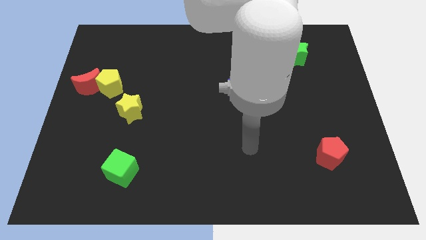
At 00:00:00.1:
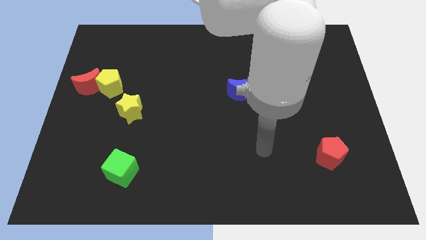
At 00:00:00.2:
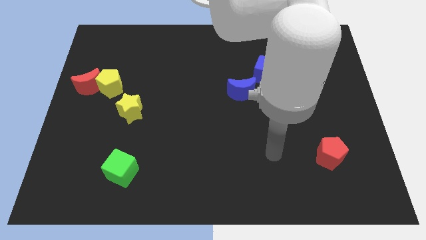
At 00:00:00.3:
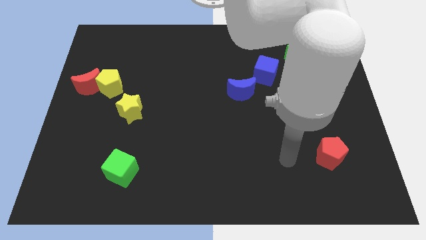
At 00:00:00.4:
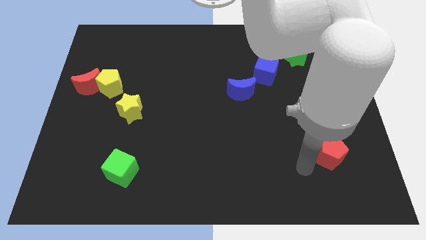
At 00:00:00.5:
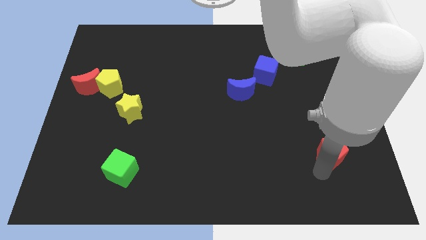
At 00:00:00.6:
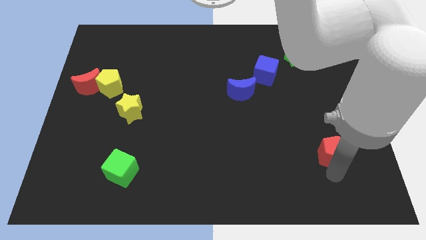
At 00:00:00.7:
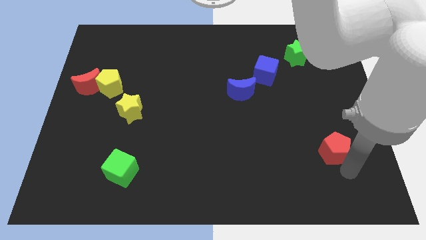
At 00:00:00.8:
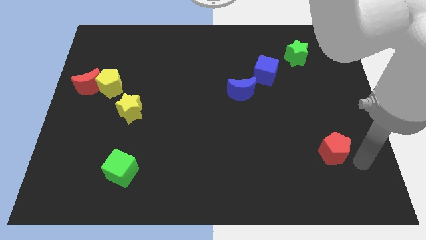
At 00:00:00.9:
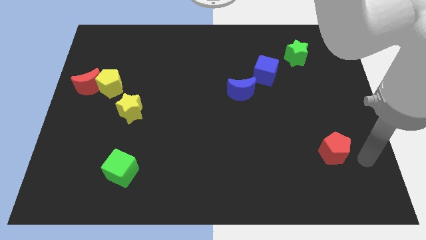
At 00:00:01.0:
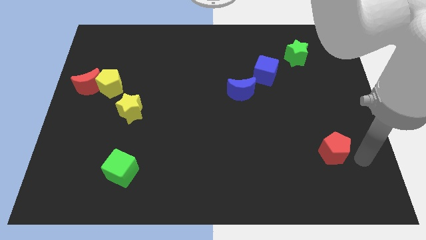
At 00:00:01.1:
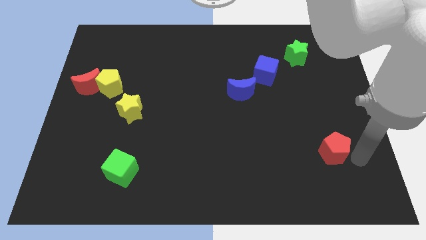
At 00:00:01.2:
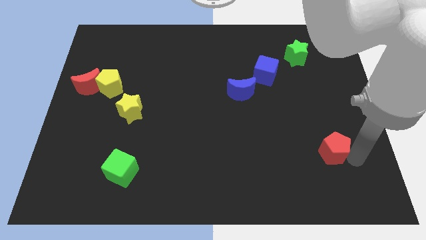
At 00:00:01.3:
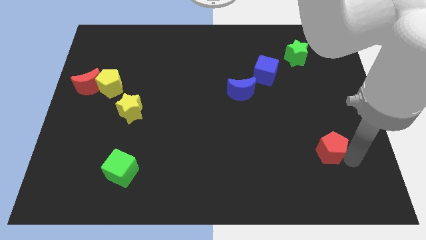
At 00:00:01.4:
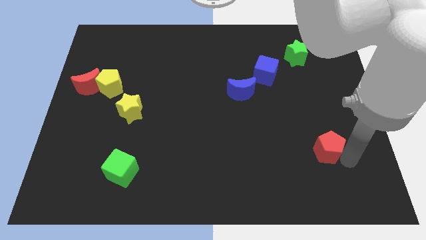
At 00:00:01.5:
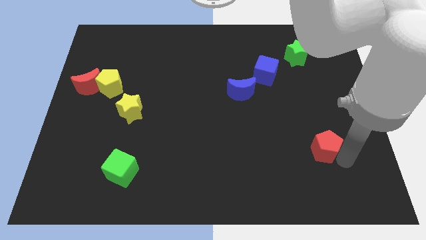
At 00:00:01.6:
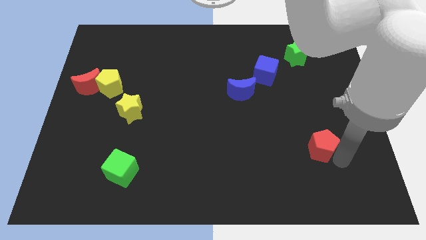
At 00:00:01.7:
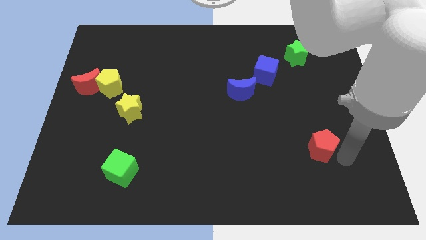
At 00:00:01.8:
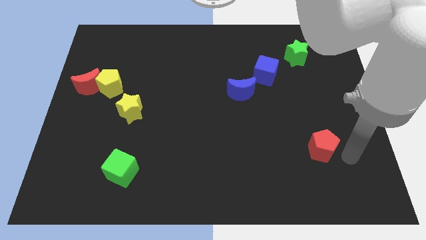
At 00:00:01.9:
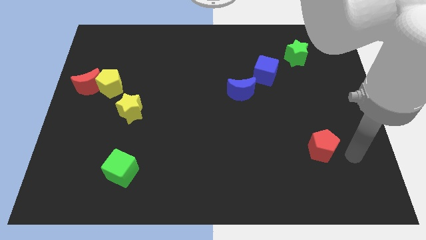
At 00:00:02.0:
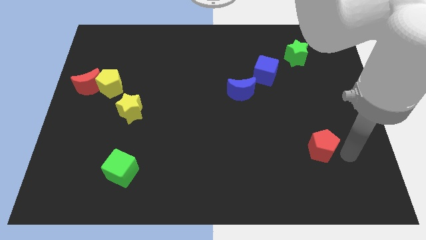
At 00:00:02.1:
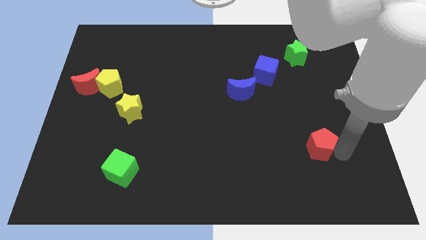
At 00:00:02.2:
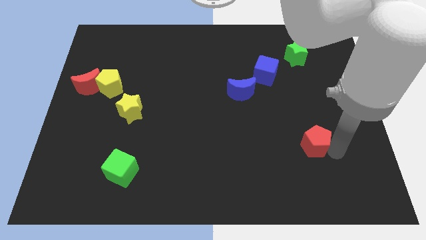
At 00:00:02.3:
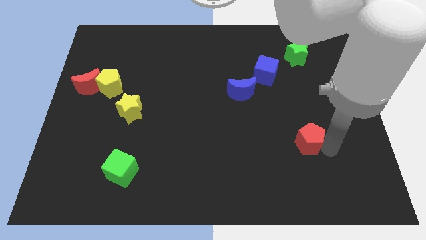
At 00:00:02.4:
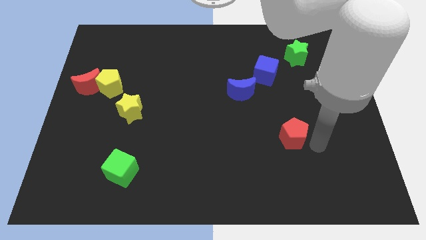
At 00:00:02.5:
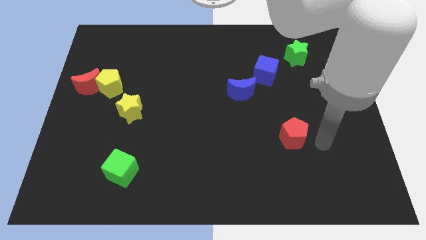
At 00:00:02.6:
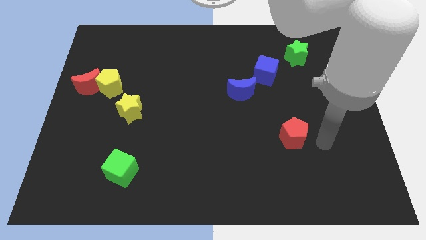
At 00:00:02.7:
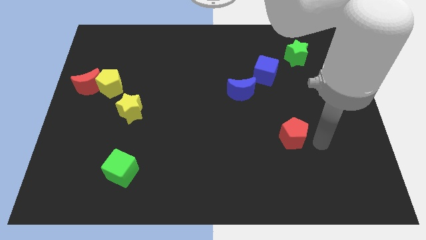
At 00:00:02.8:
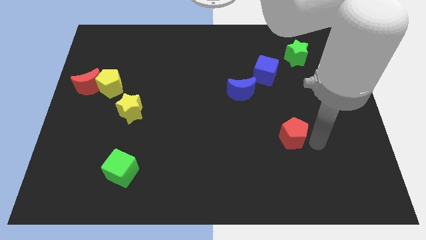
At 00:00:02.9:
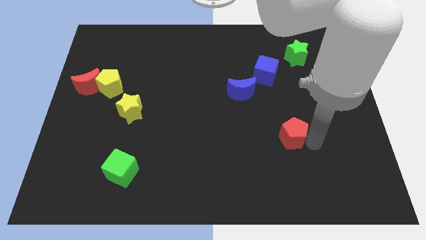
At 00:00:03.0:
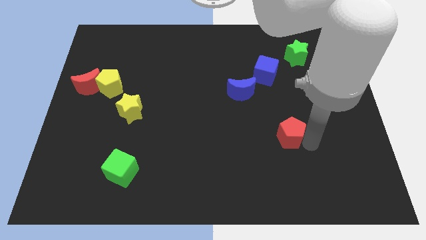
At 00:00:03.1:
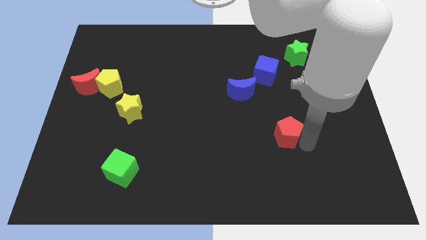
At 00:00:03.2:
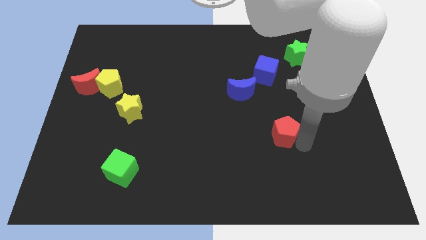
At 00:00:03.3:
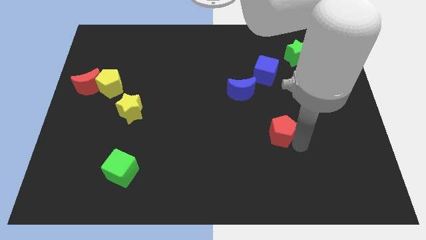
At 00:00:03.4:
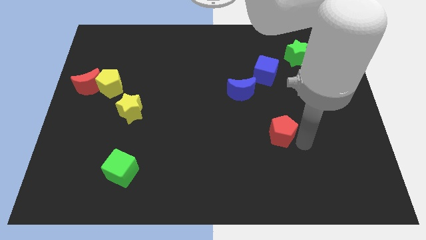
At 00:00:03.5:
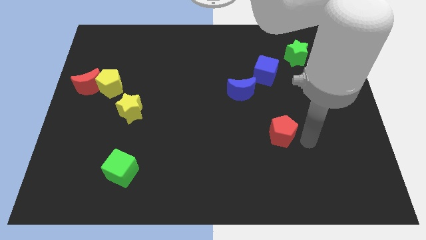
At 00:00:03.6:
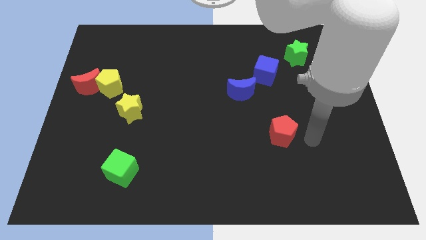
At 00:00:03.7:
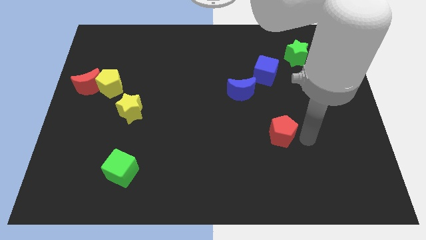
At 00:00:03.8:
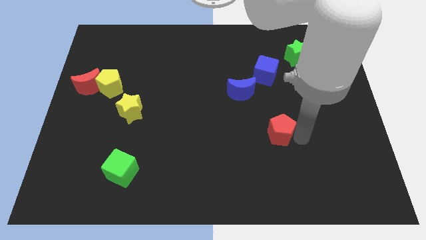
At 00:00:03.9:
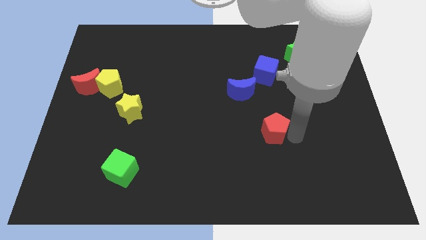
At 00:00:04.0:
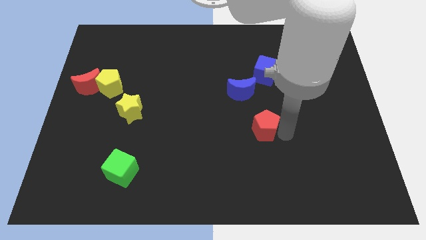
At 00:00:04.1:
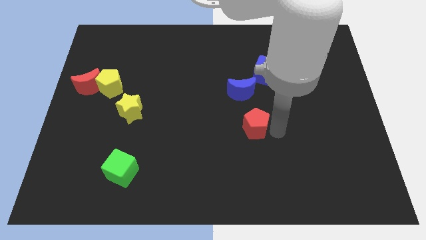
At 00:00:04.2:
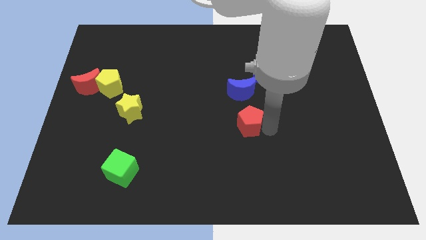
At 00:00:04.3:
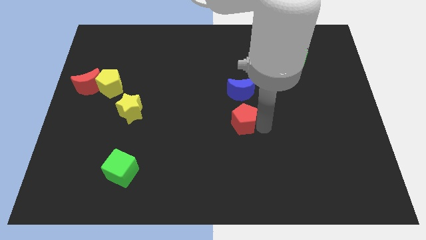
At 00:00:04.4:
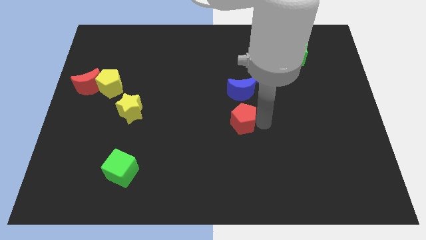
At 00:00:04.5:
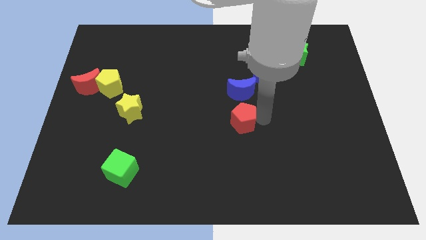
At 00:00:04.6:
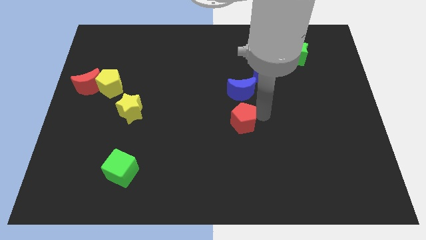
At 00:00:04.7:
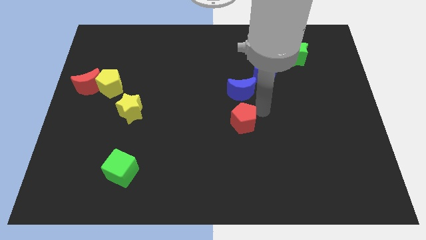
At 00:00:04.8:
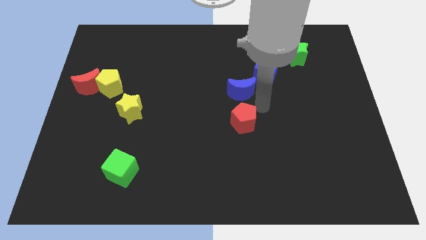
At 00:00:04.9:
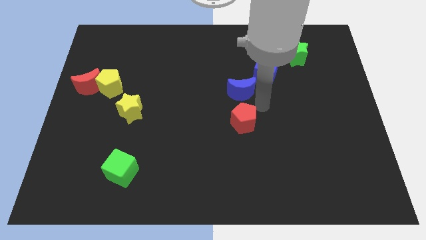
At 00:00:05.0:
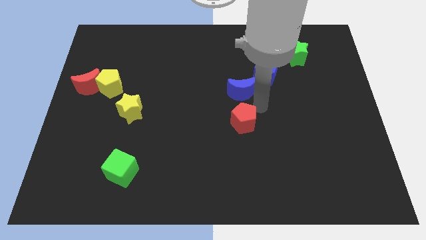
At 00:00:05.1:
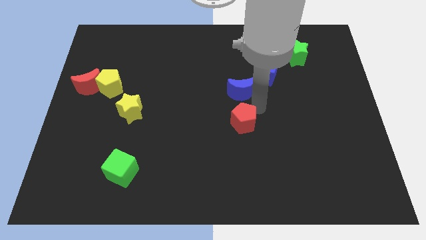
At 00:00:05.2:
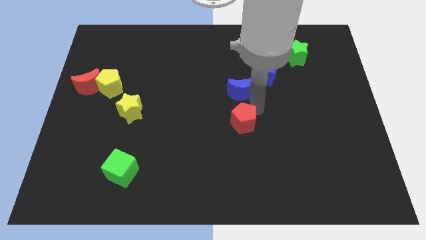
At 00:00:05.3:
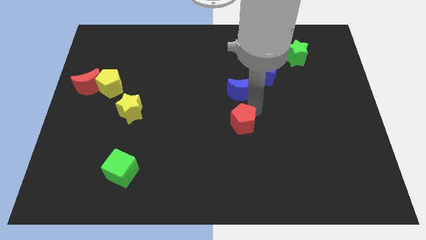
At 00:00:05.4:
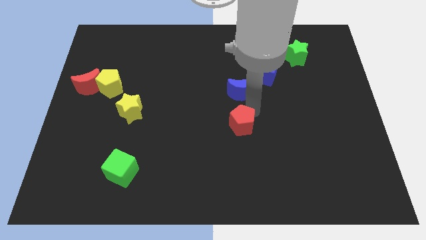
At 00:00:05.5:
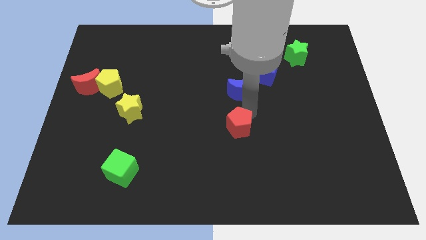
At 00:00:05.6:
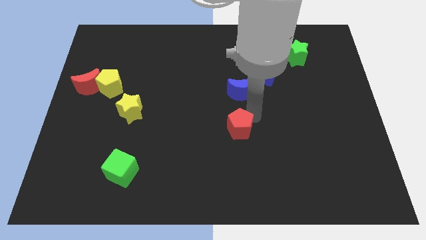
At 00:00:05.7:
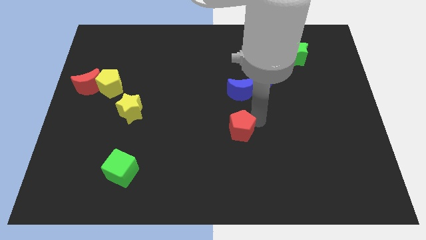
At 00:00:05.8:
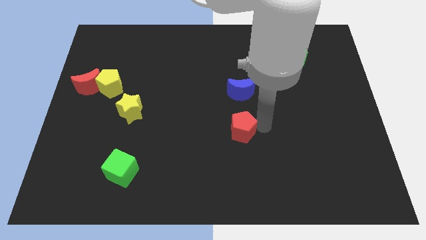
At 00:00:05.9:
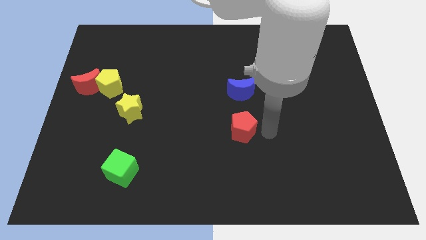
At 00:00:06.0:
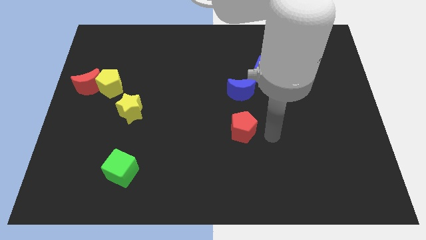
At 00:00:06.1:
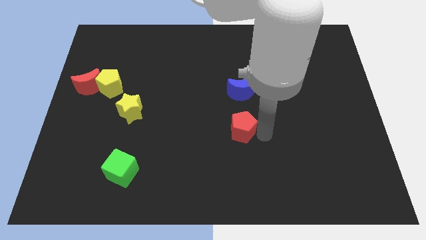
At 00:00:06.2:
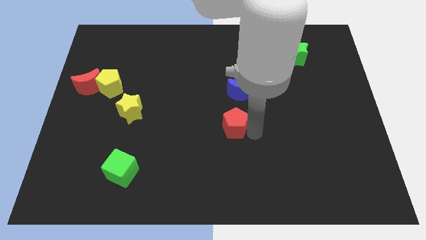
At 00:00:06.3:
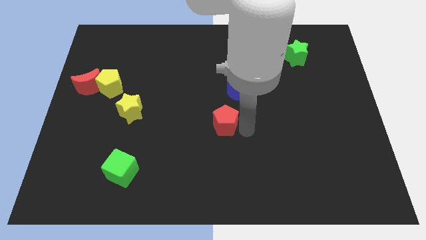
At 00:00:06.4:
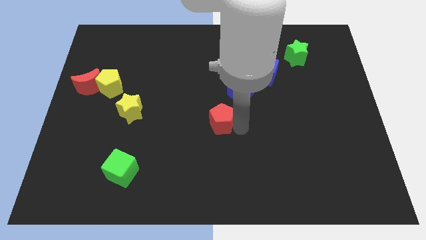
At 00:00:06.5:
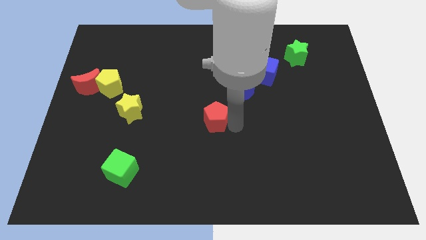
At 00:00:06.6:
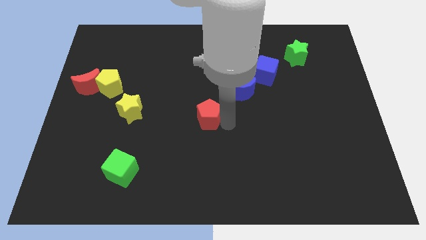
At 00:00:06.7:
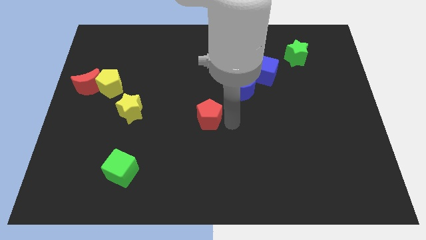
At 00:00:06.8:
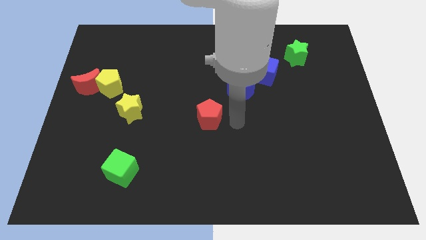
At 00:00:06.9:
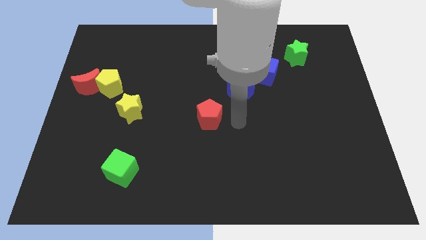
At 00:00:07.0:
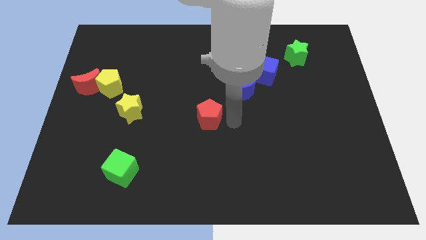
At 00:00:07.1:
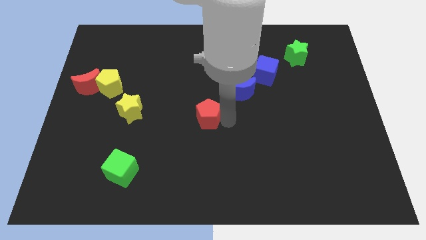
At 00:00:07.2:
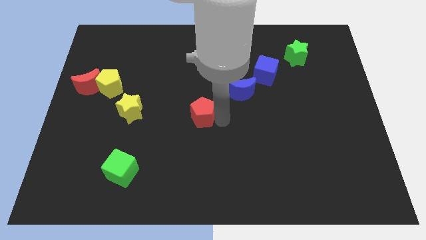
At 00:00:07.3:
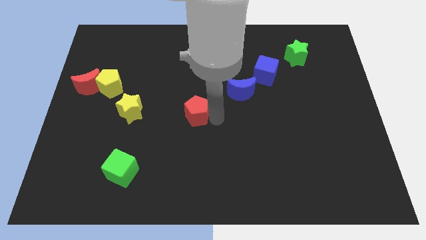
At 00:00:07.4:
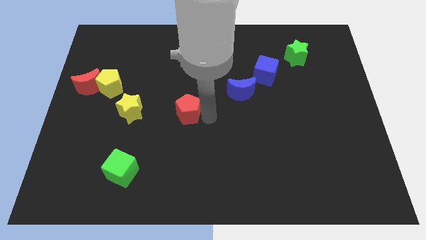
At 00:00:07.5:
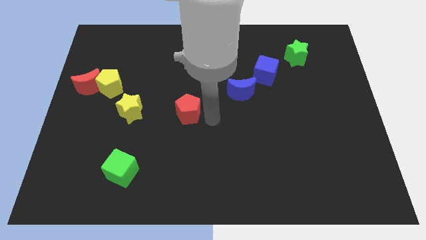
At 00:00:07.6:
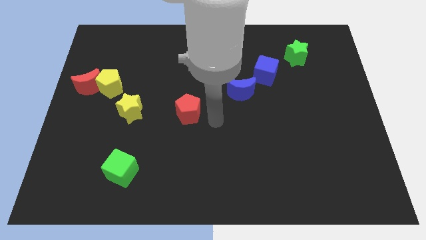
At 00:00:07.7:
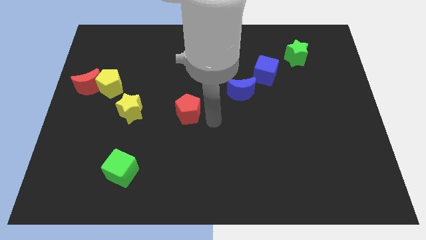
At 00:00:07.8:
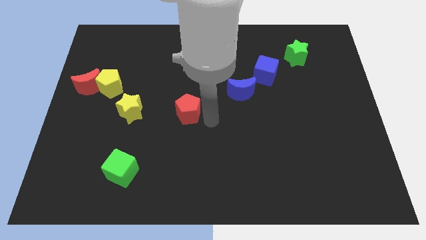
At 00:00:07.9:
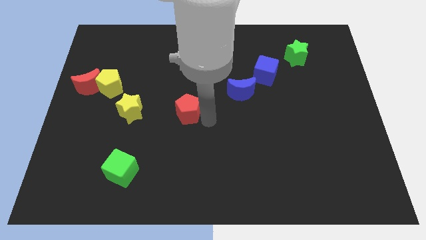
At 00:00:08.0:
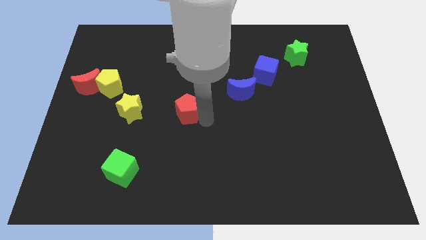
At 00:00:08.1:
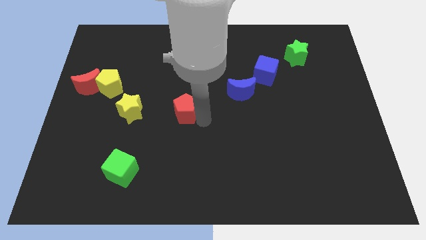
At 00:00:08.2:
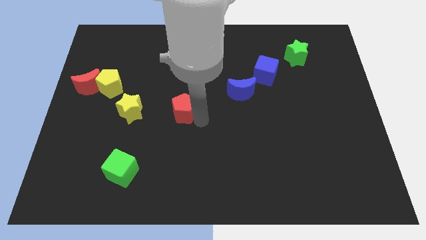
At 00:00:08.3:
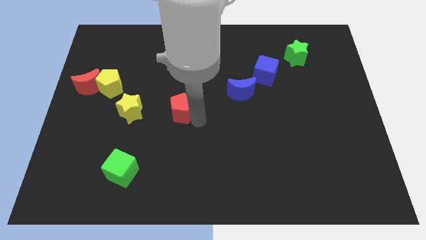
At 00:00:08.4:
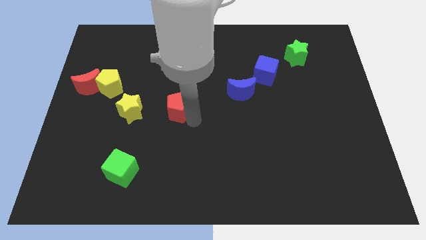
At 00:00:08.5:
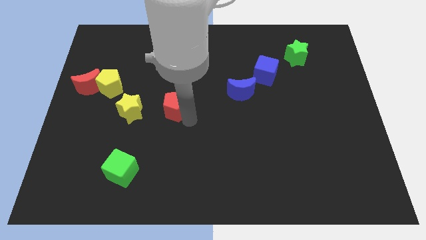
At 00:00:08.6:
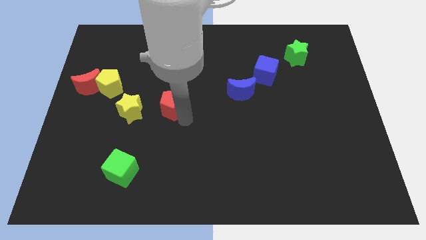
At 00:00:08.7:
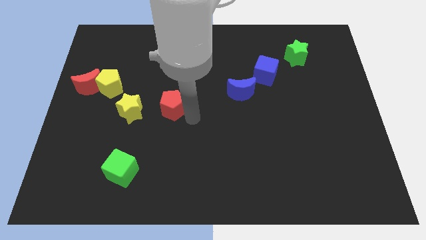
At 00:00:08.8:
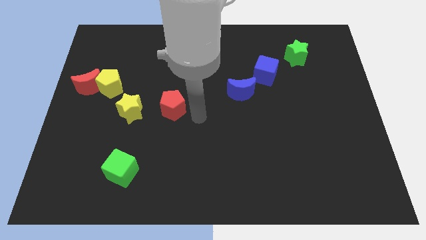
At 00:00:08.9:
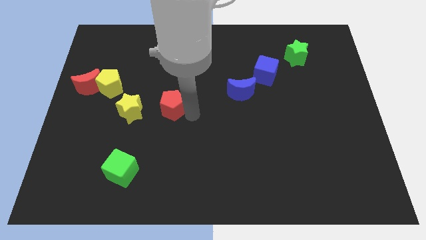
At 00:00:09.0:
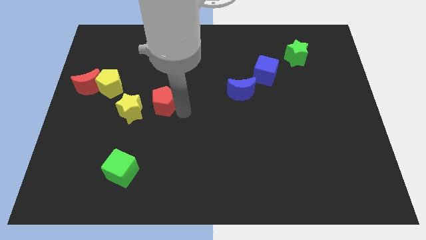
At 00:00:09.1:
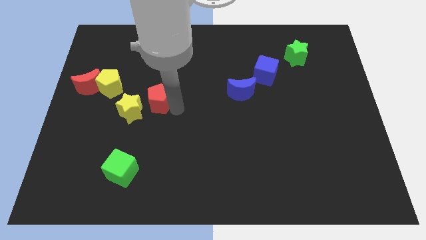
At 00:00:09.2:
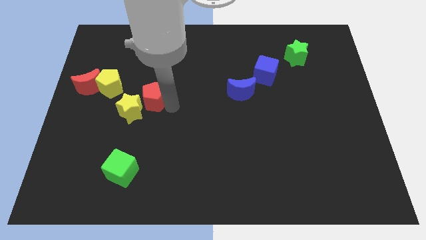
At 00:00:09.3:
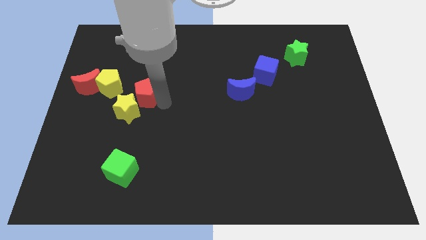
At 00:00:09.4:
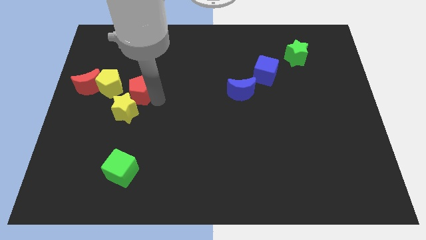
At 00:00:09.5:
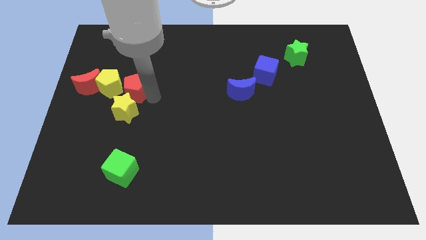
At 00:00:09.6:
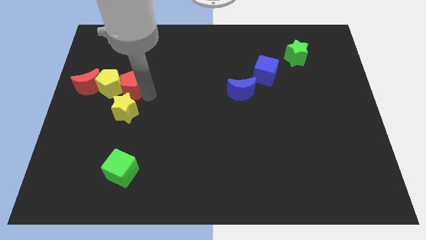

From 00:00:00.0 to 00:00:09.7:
push the red pentagon next to the yellow pentagon
